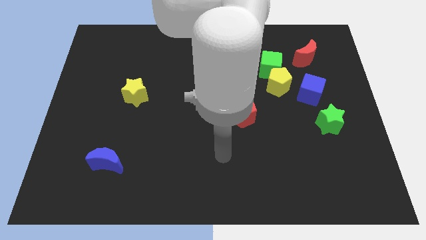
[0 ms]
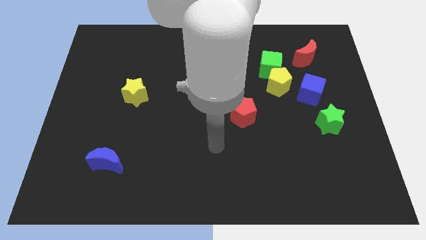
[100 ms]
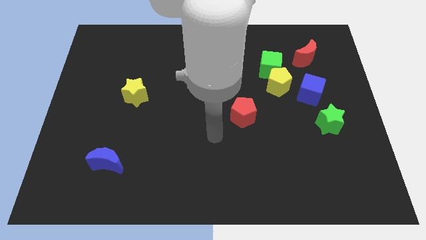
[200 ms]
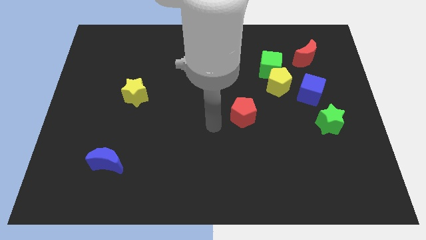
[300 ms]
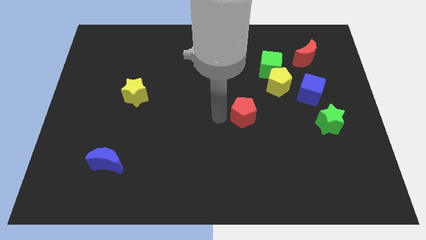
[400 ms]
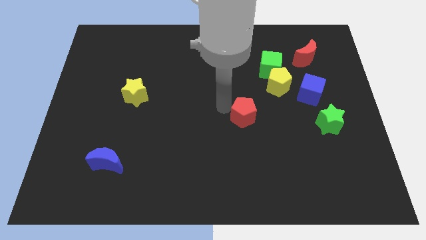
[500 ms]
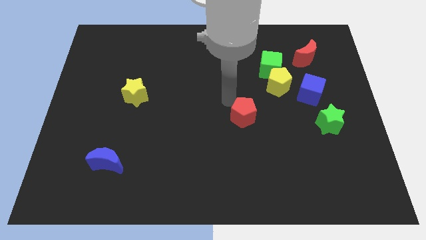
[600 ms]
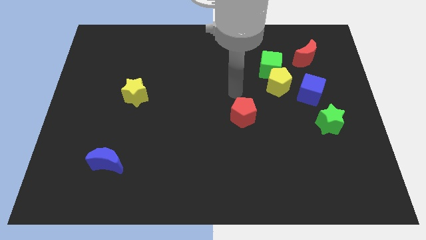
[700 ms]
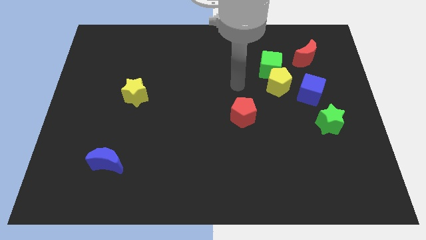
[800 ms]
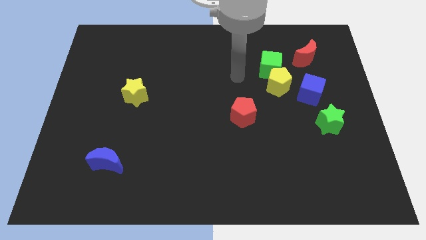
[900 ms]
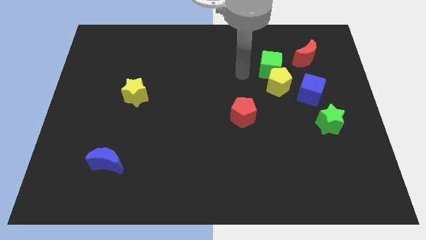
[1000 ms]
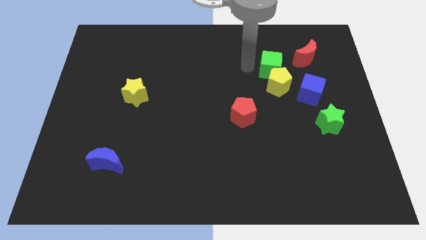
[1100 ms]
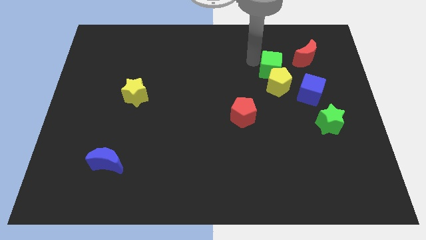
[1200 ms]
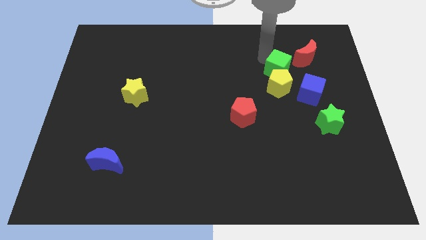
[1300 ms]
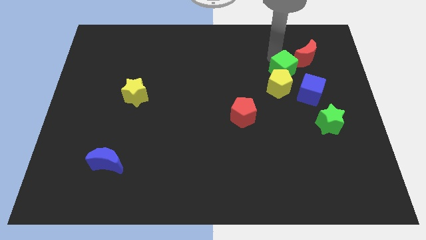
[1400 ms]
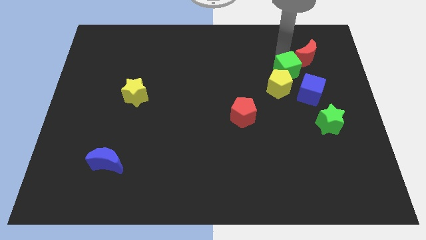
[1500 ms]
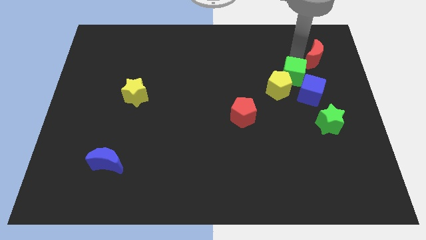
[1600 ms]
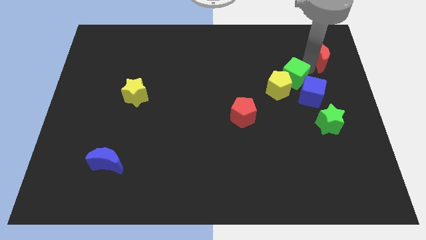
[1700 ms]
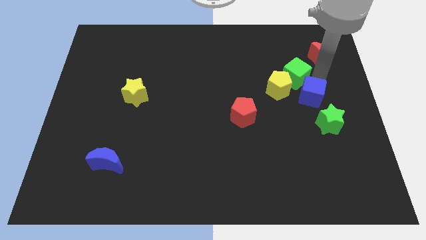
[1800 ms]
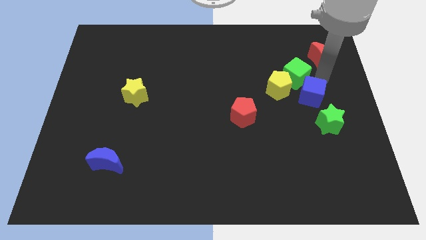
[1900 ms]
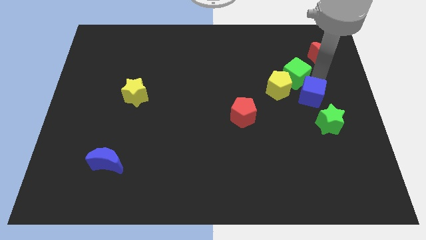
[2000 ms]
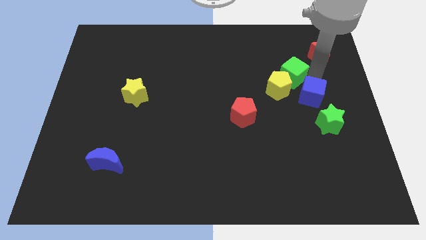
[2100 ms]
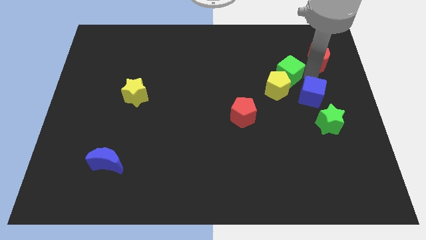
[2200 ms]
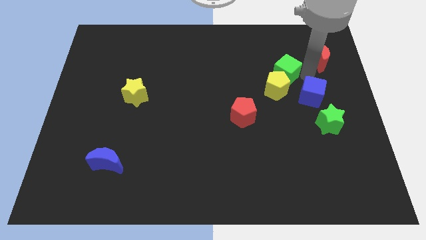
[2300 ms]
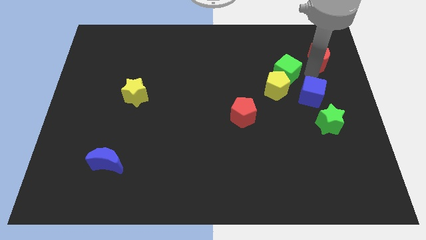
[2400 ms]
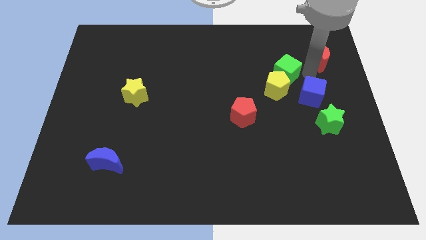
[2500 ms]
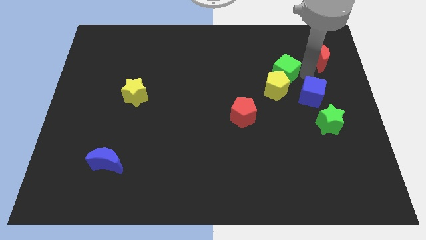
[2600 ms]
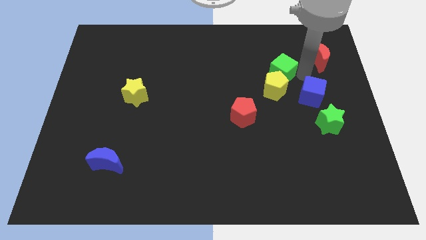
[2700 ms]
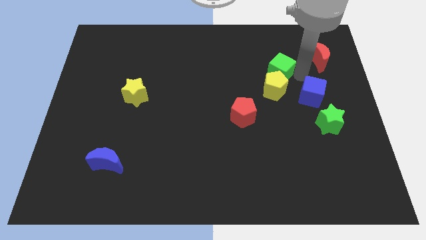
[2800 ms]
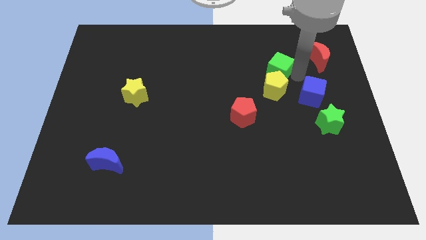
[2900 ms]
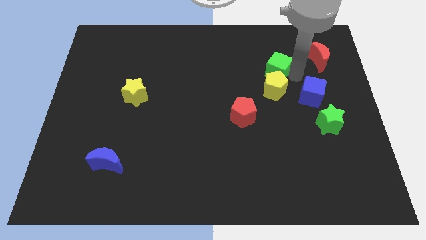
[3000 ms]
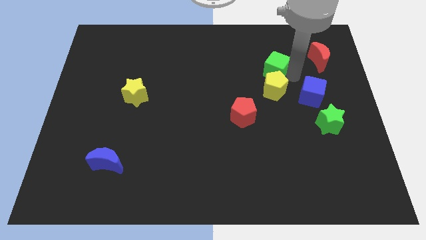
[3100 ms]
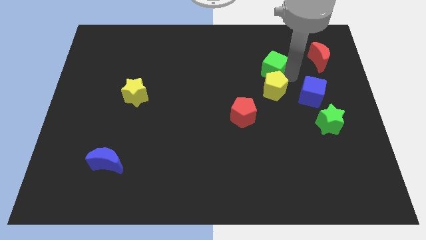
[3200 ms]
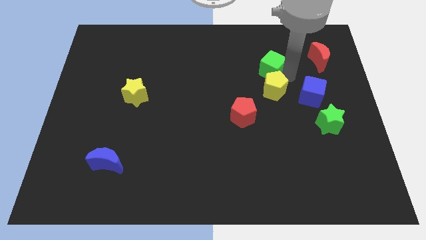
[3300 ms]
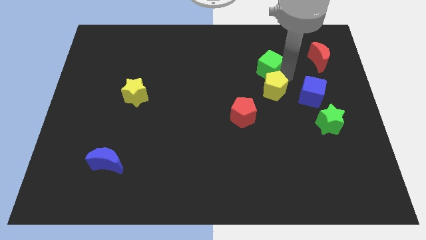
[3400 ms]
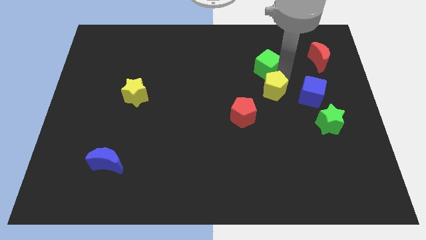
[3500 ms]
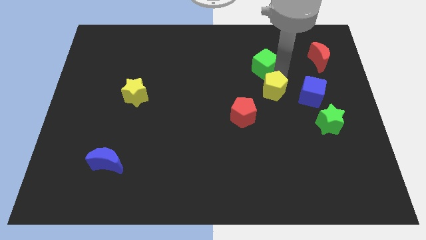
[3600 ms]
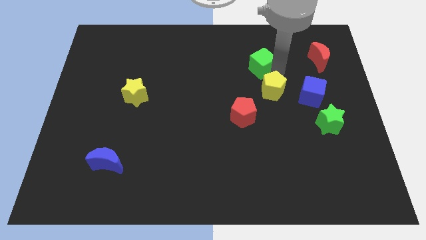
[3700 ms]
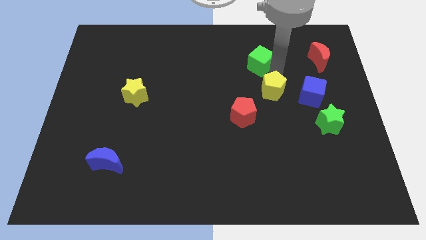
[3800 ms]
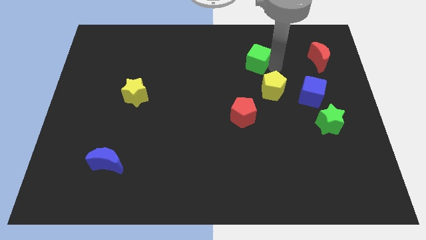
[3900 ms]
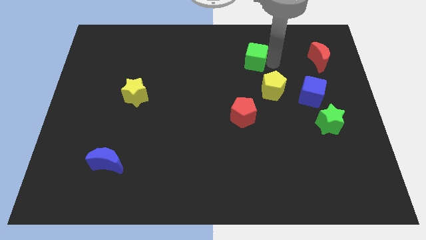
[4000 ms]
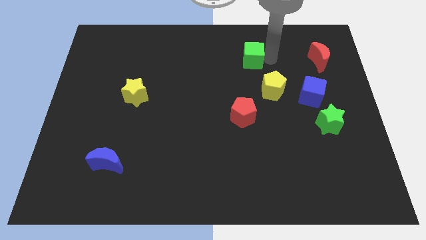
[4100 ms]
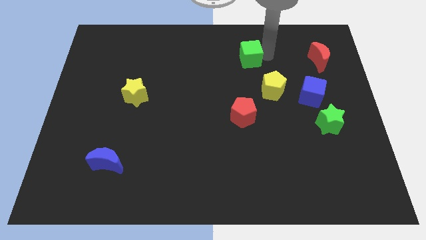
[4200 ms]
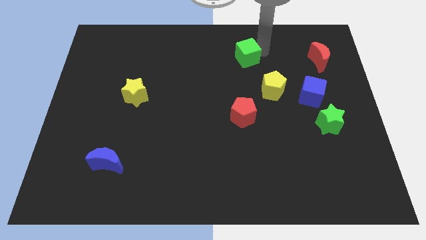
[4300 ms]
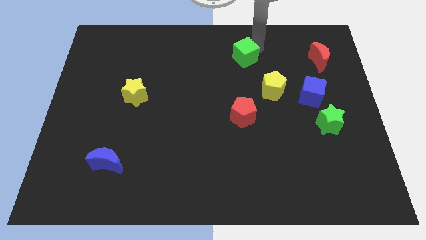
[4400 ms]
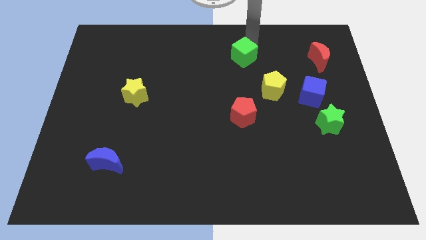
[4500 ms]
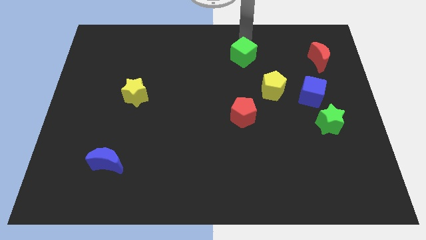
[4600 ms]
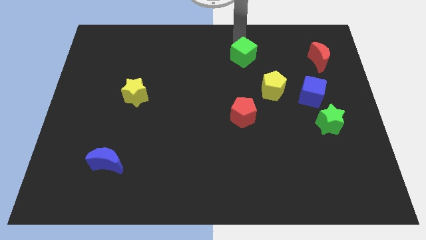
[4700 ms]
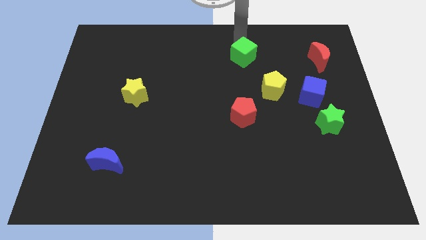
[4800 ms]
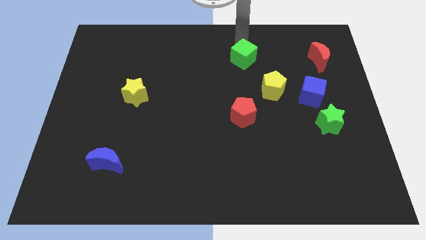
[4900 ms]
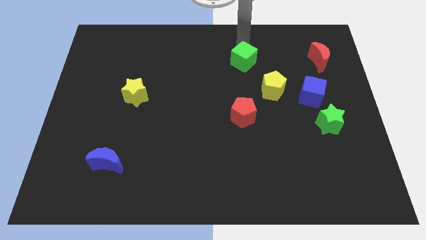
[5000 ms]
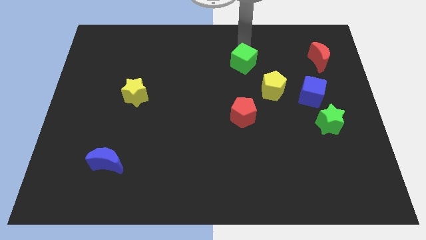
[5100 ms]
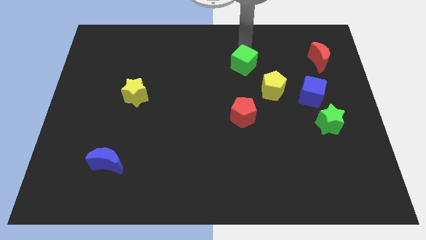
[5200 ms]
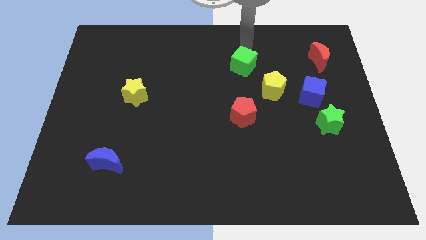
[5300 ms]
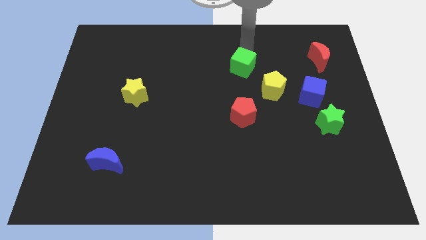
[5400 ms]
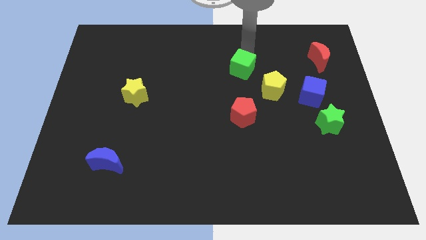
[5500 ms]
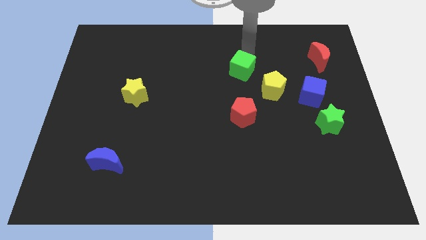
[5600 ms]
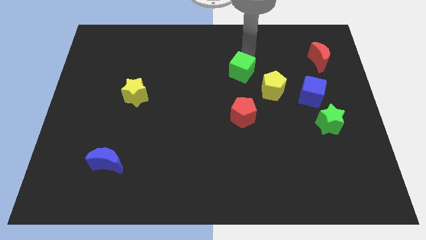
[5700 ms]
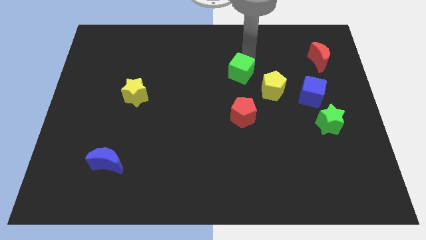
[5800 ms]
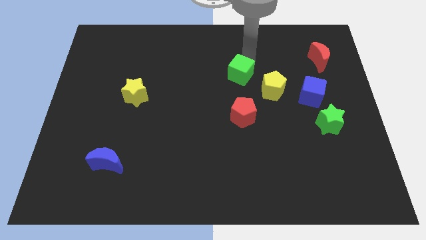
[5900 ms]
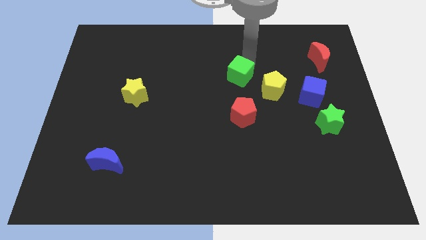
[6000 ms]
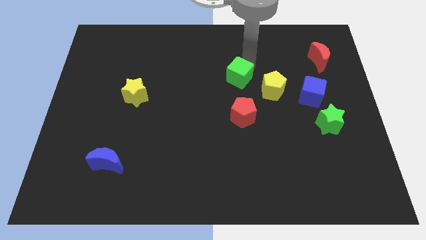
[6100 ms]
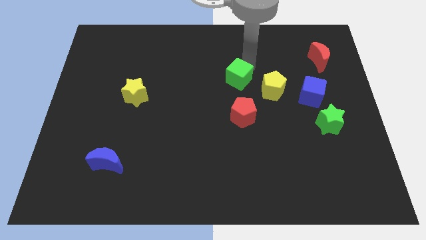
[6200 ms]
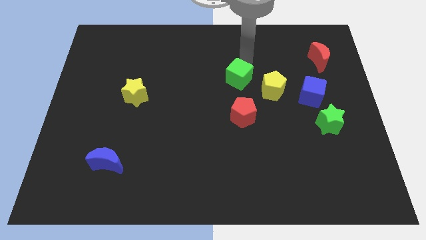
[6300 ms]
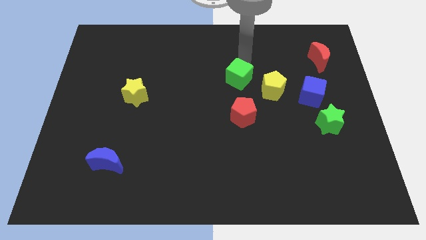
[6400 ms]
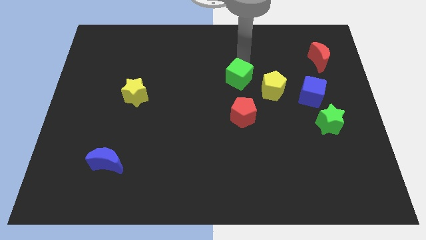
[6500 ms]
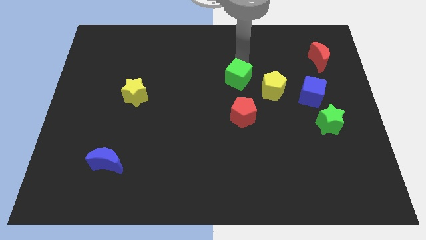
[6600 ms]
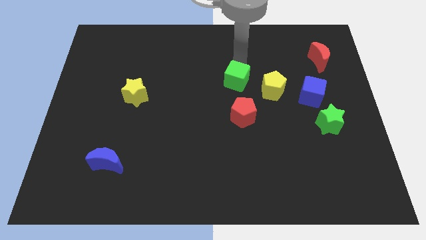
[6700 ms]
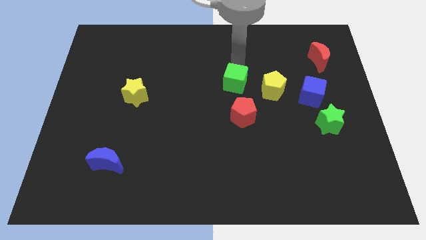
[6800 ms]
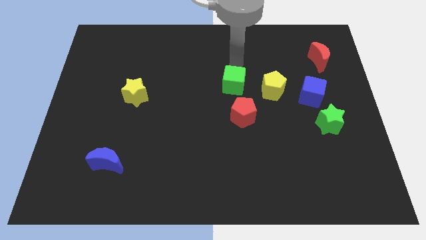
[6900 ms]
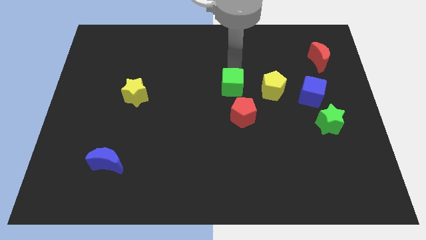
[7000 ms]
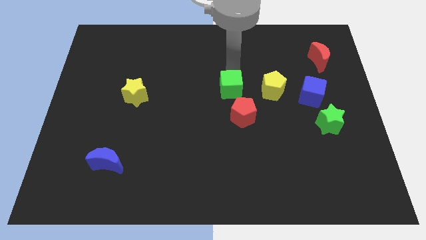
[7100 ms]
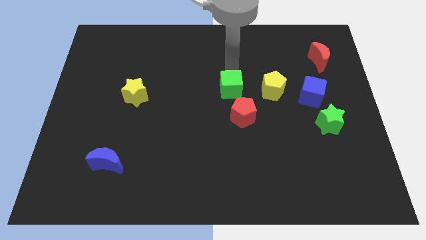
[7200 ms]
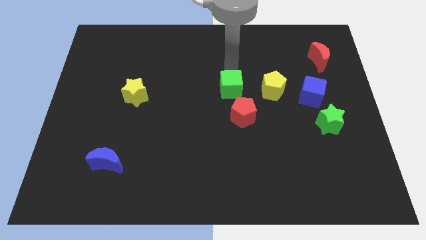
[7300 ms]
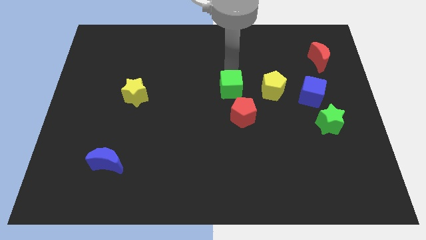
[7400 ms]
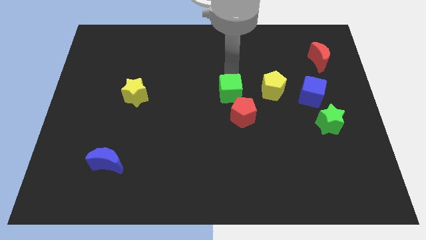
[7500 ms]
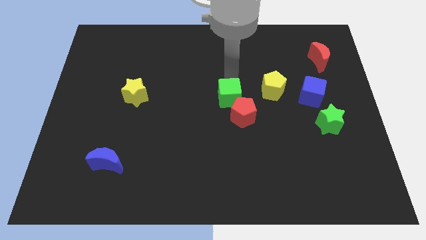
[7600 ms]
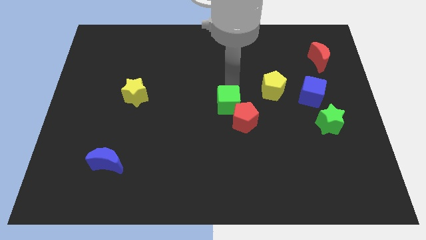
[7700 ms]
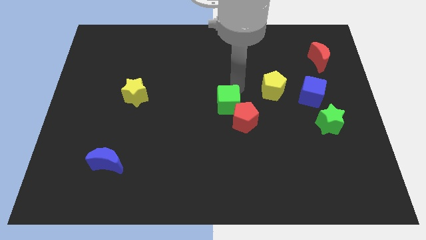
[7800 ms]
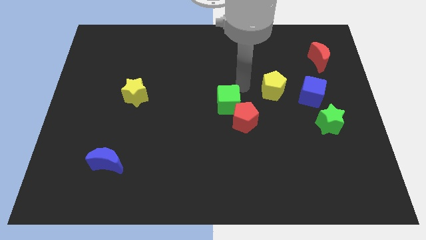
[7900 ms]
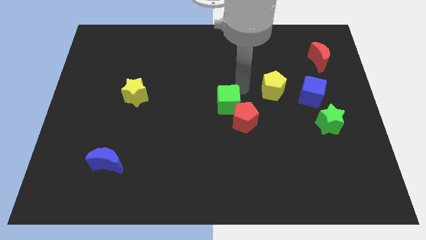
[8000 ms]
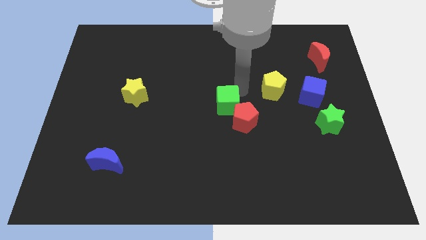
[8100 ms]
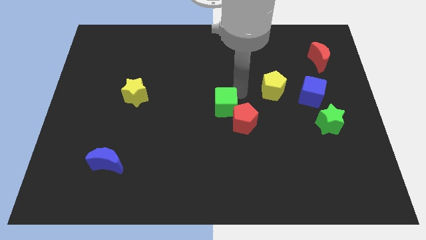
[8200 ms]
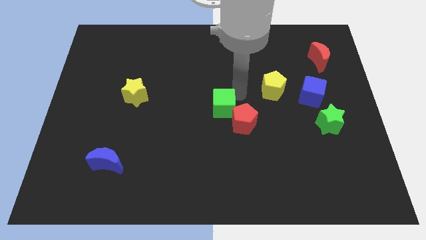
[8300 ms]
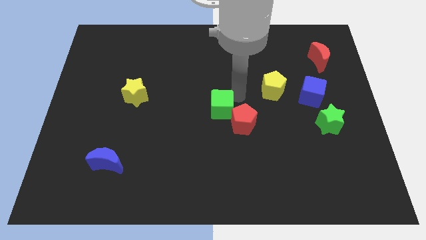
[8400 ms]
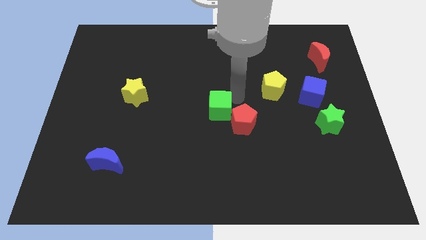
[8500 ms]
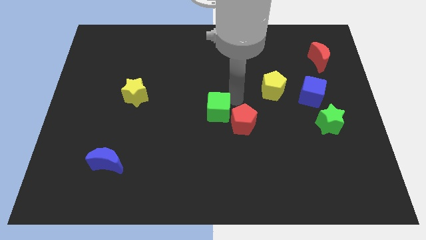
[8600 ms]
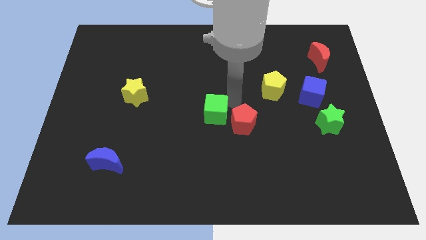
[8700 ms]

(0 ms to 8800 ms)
push the green cube diagonally down and to the left
